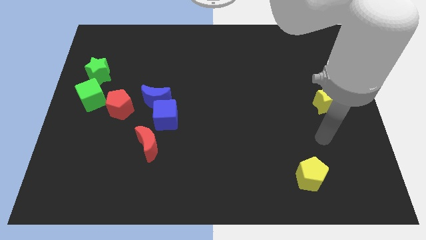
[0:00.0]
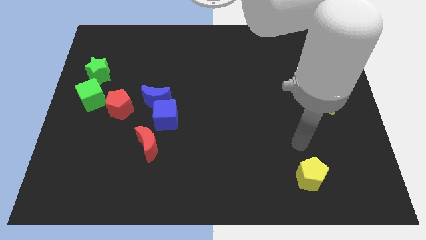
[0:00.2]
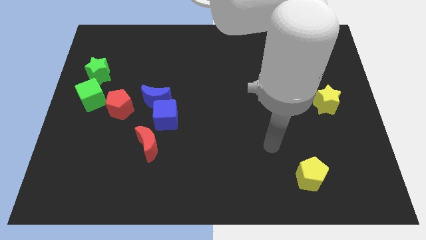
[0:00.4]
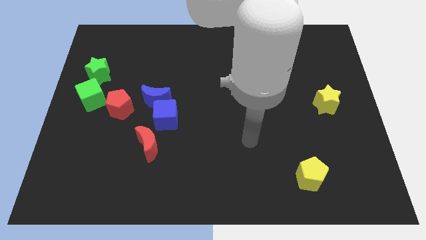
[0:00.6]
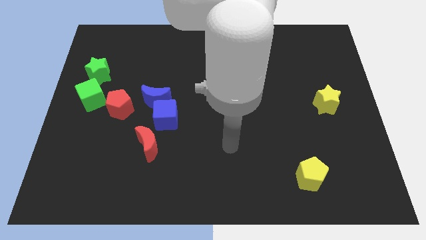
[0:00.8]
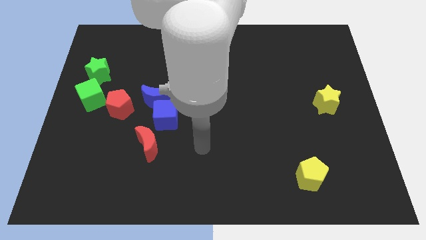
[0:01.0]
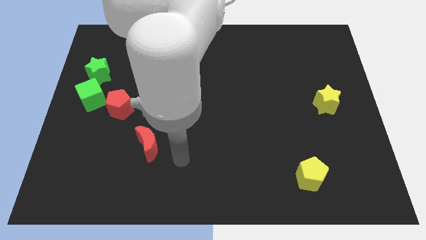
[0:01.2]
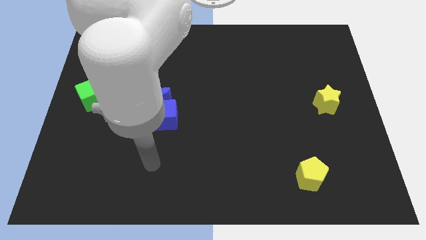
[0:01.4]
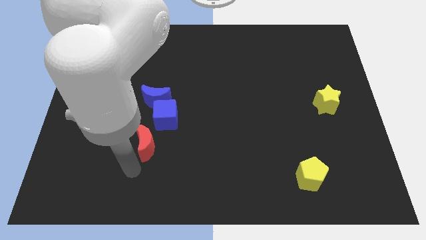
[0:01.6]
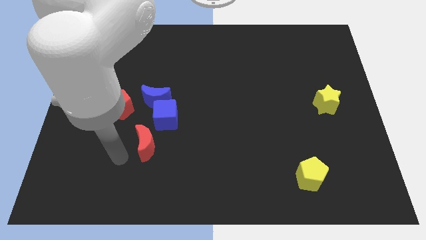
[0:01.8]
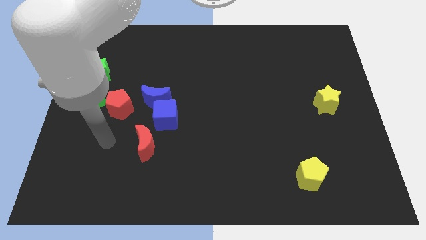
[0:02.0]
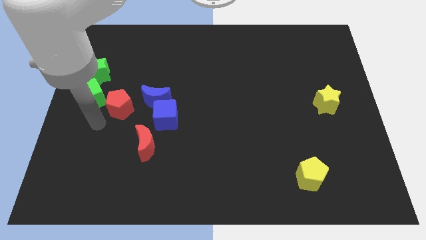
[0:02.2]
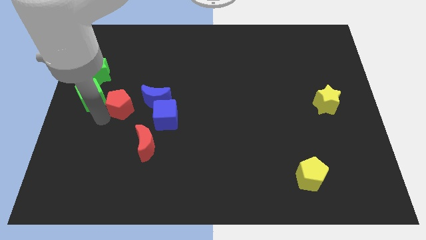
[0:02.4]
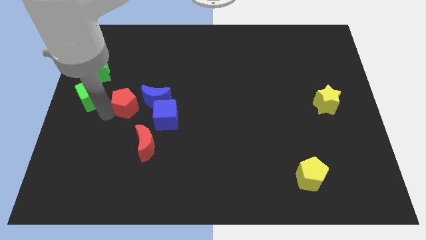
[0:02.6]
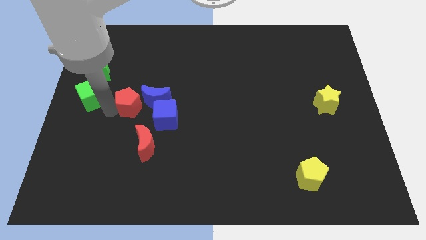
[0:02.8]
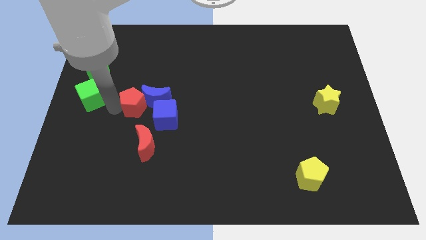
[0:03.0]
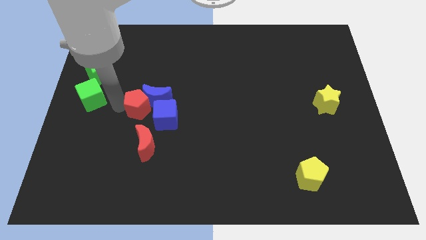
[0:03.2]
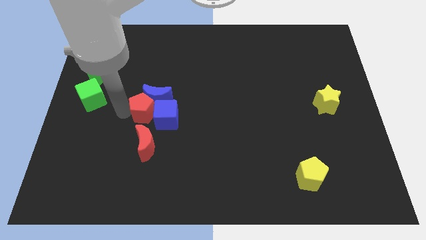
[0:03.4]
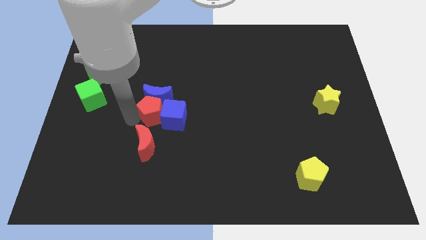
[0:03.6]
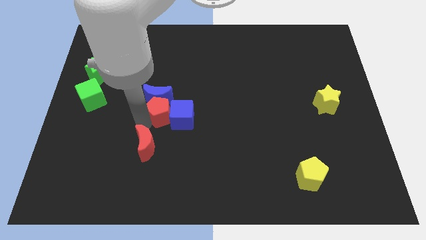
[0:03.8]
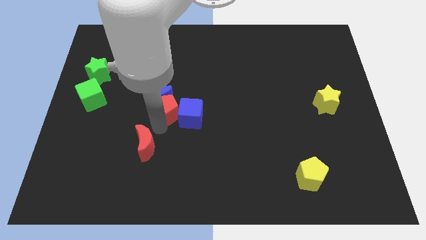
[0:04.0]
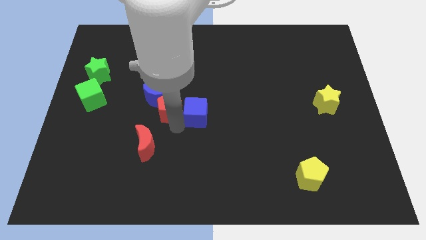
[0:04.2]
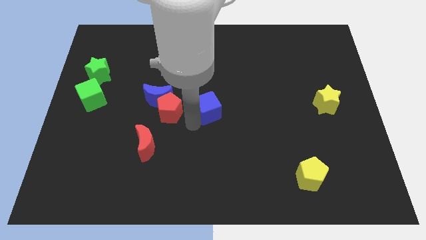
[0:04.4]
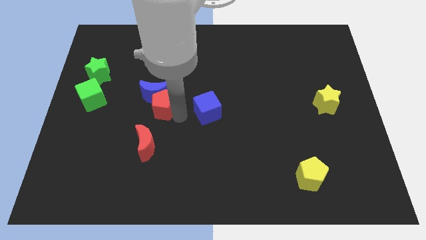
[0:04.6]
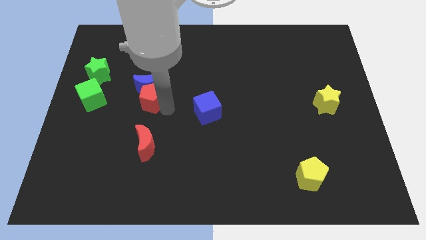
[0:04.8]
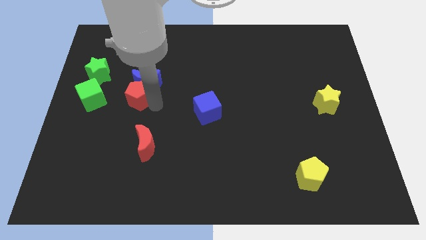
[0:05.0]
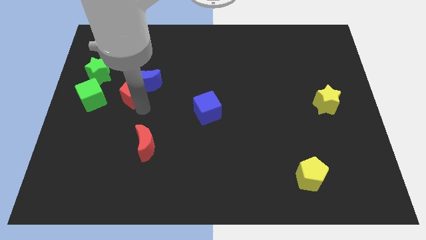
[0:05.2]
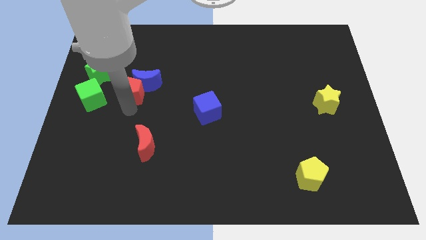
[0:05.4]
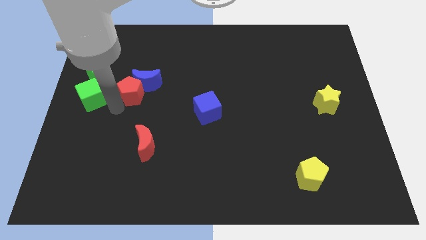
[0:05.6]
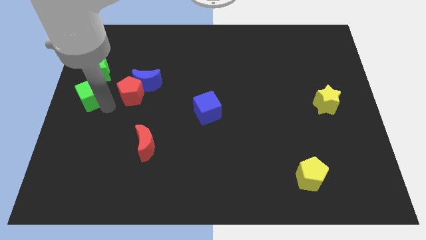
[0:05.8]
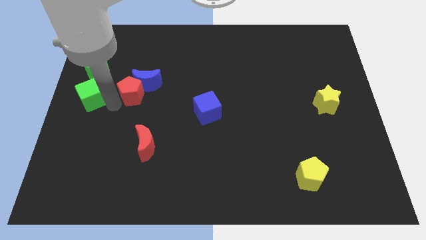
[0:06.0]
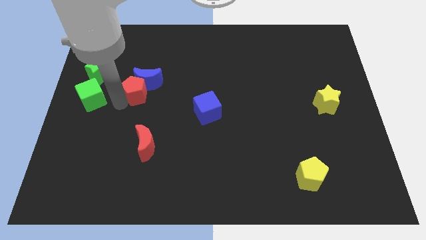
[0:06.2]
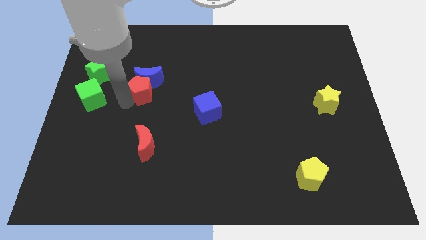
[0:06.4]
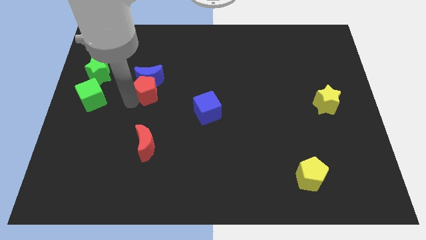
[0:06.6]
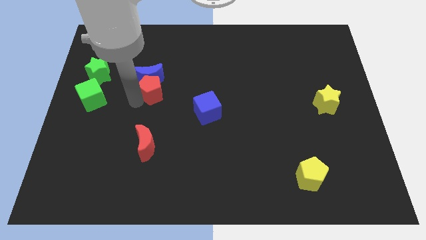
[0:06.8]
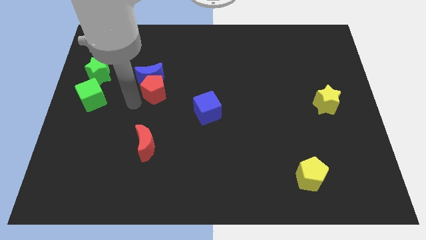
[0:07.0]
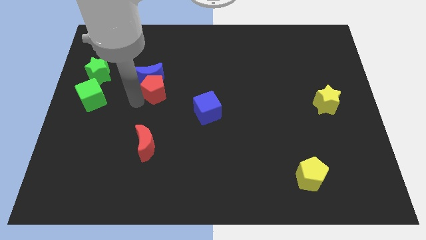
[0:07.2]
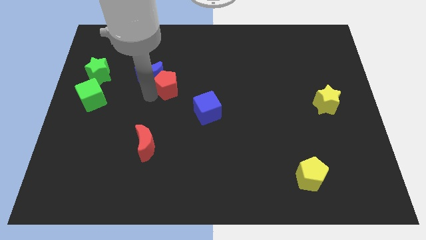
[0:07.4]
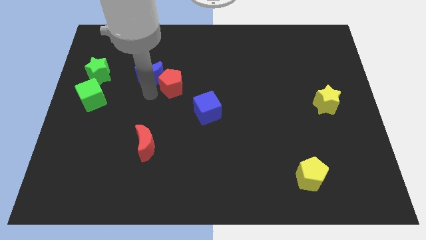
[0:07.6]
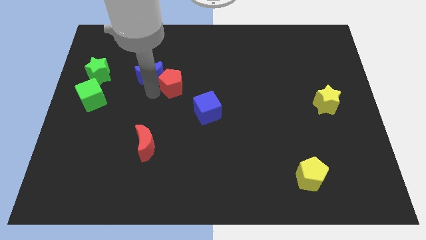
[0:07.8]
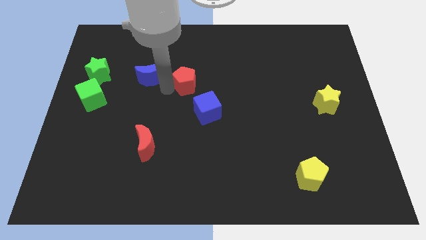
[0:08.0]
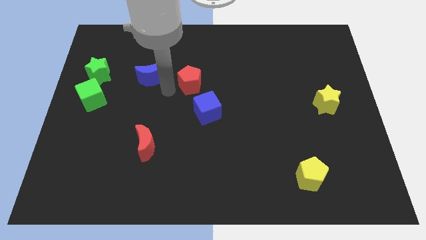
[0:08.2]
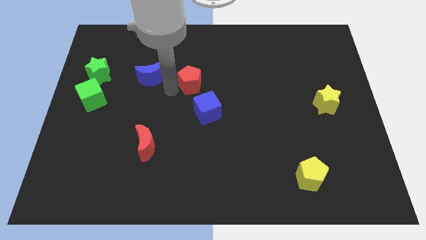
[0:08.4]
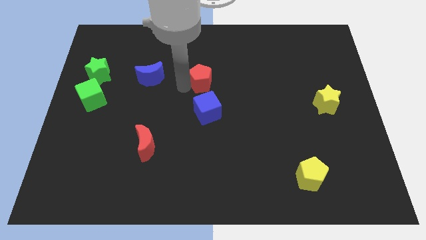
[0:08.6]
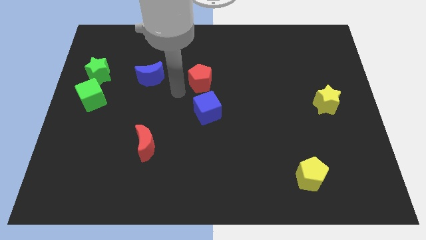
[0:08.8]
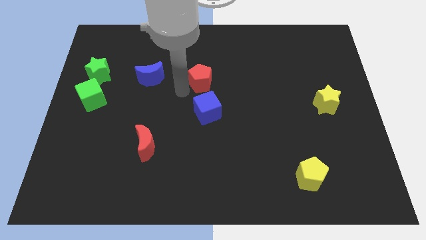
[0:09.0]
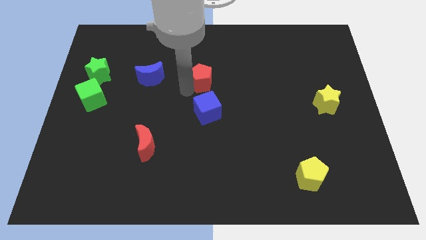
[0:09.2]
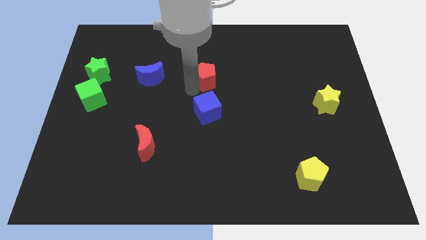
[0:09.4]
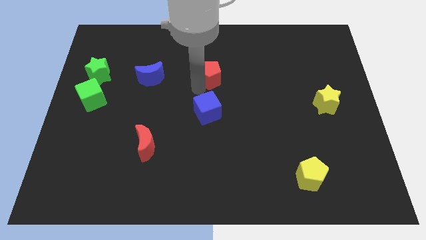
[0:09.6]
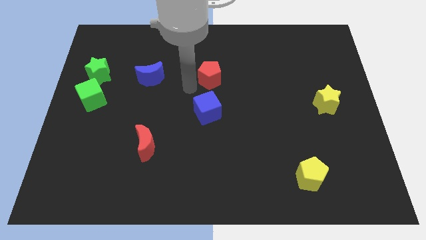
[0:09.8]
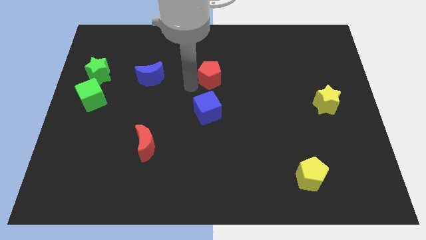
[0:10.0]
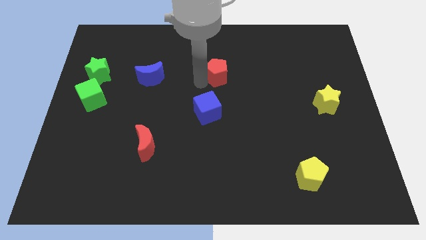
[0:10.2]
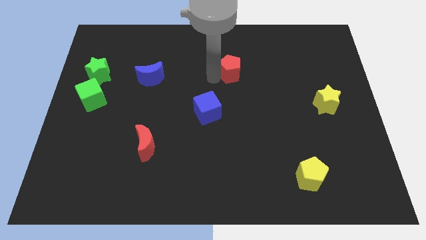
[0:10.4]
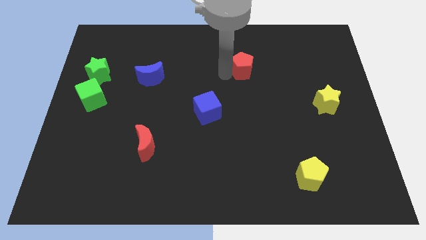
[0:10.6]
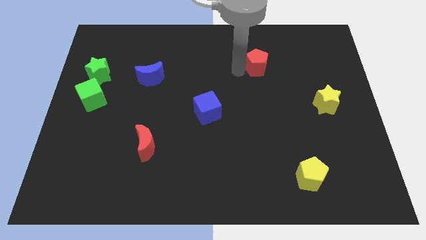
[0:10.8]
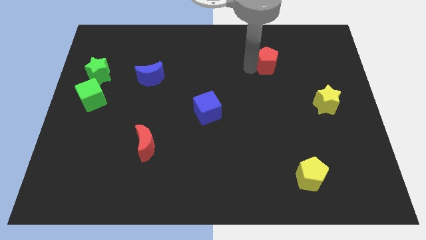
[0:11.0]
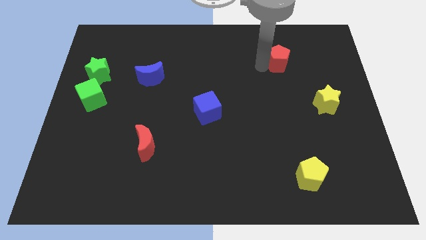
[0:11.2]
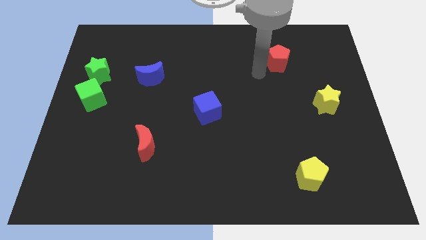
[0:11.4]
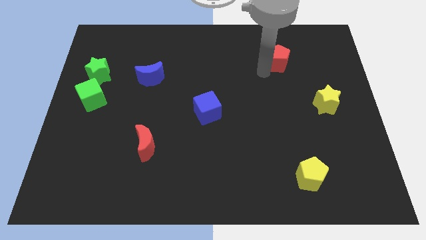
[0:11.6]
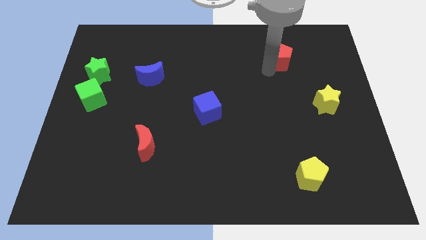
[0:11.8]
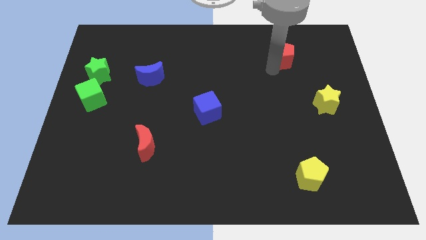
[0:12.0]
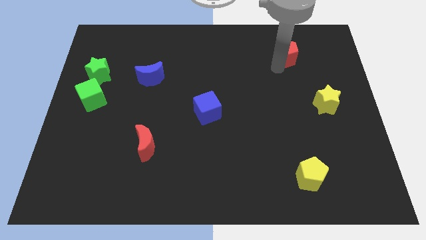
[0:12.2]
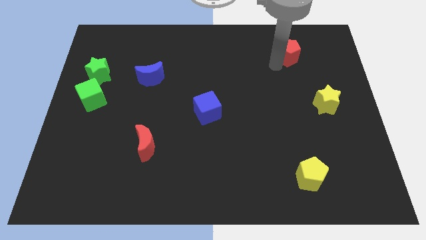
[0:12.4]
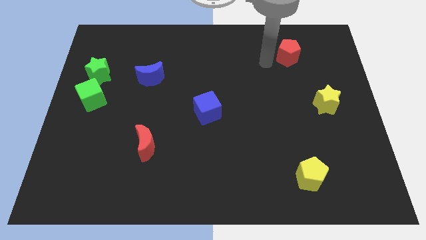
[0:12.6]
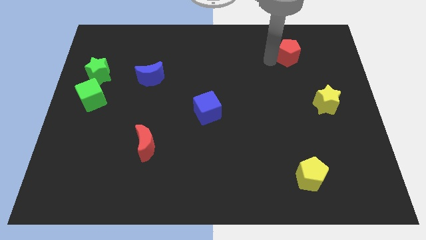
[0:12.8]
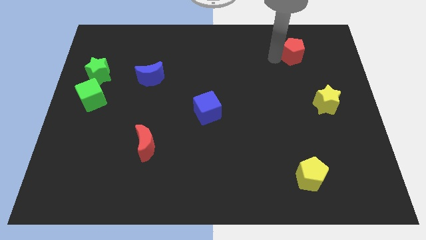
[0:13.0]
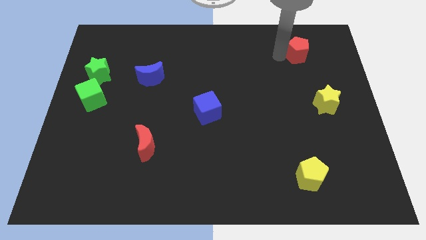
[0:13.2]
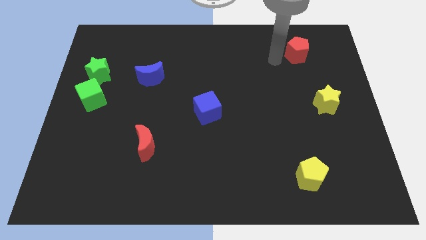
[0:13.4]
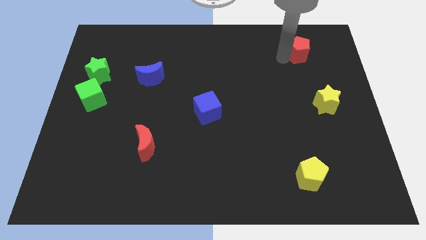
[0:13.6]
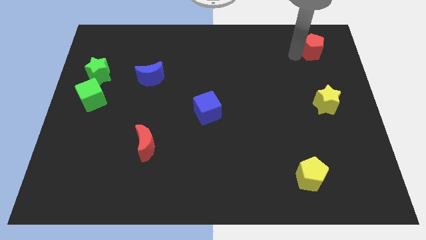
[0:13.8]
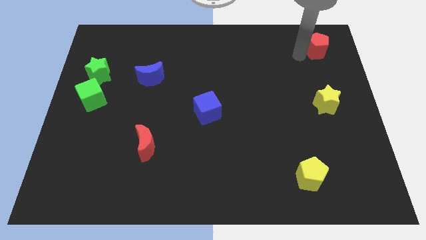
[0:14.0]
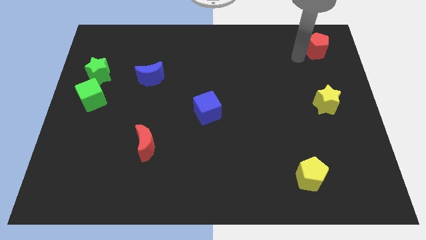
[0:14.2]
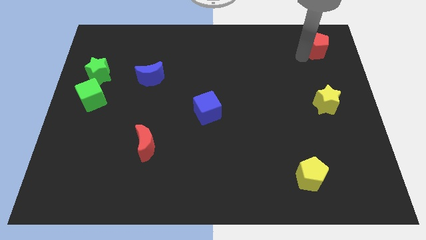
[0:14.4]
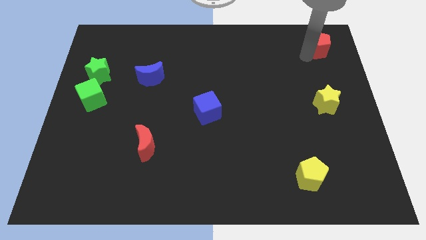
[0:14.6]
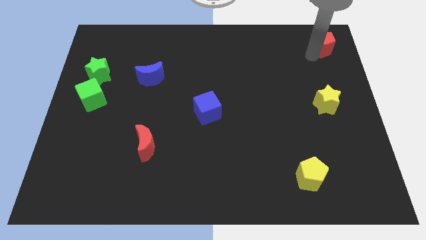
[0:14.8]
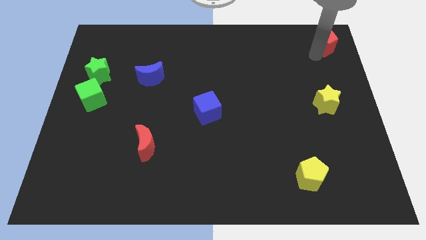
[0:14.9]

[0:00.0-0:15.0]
push the red pentagon to the top right
